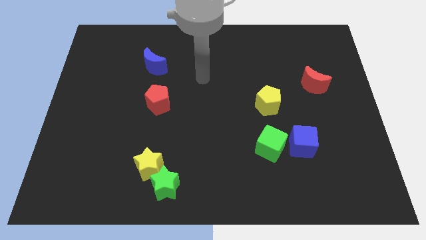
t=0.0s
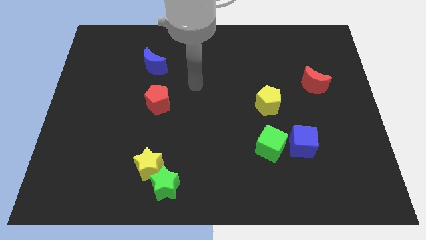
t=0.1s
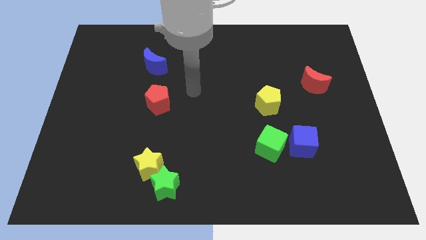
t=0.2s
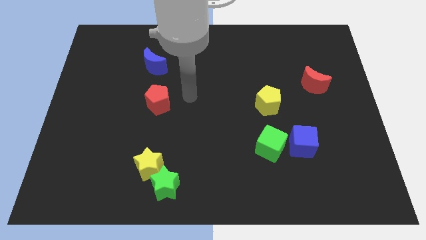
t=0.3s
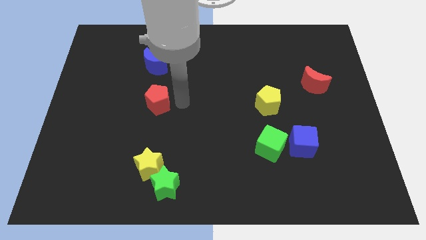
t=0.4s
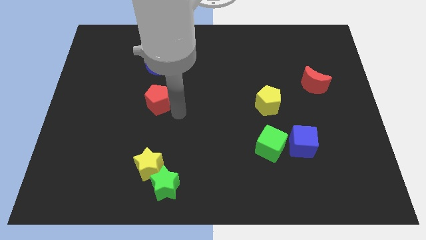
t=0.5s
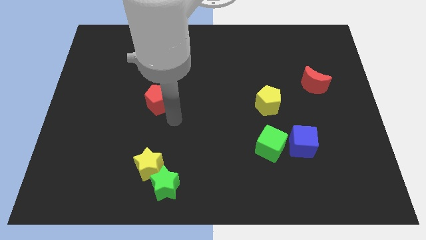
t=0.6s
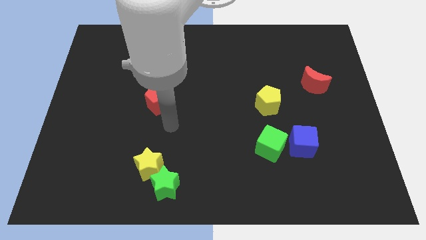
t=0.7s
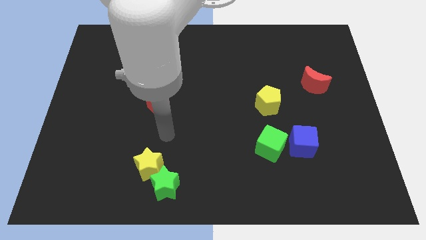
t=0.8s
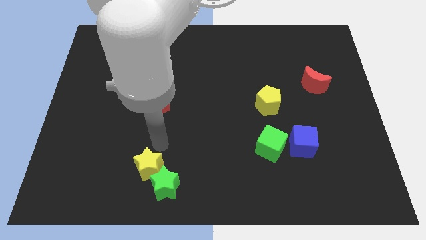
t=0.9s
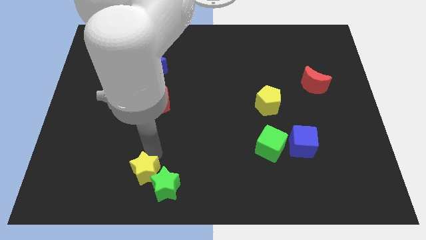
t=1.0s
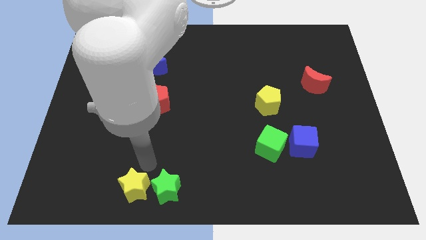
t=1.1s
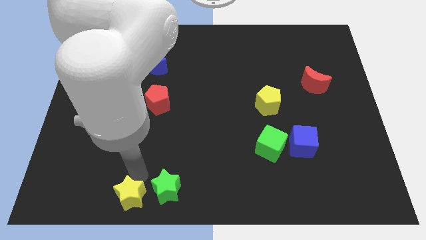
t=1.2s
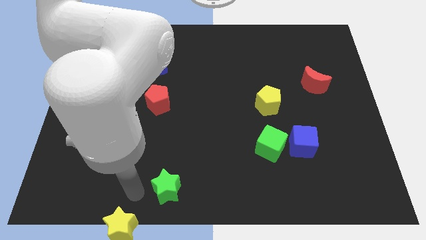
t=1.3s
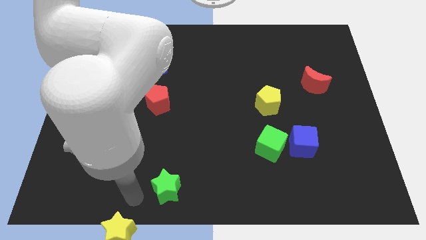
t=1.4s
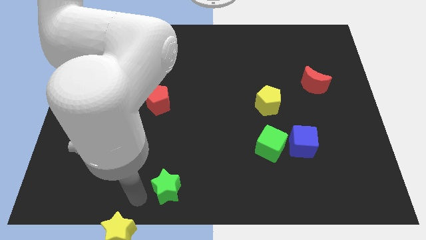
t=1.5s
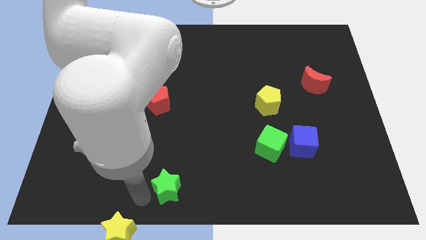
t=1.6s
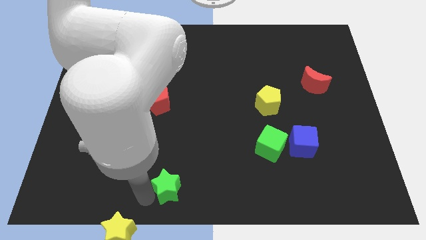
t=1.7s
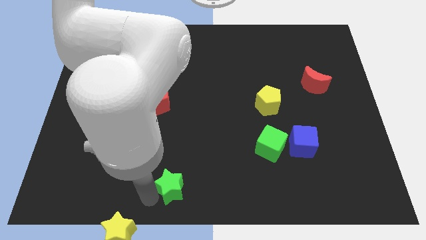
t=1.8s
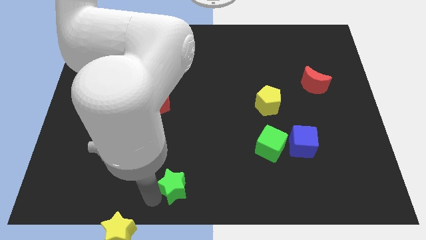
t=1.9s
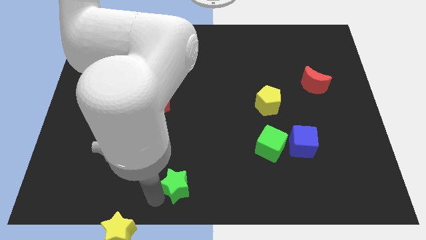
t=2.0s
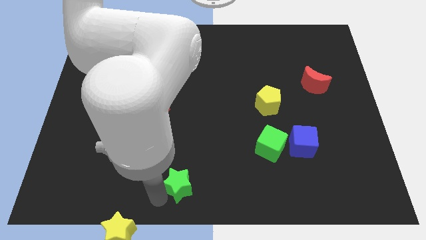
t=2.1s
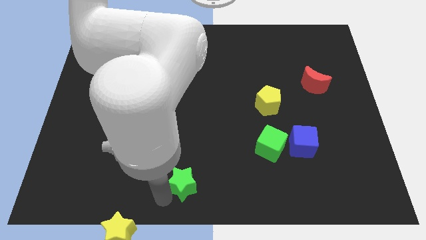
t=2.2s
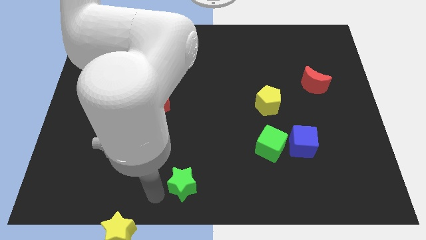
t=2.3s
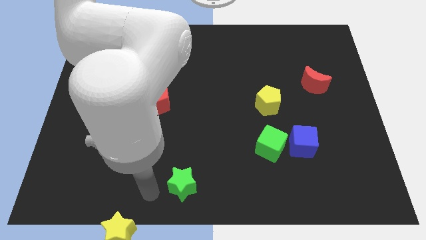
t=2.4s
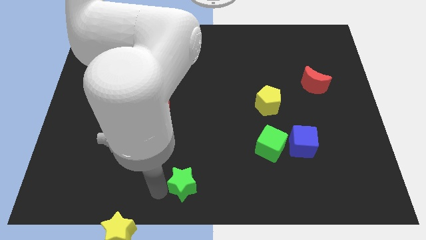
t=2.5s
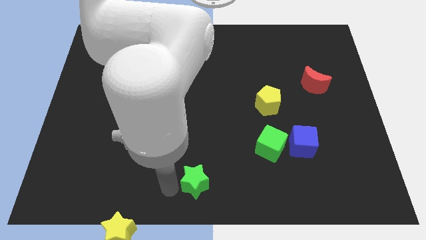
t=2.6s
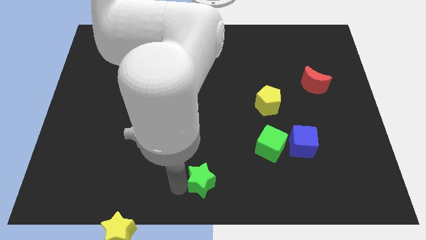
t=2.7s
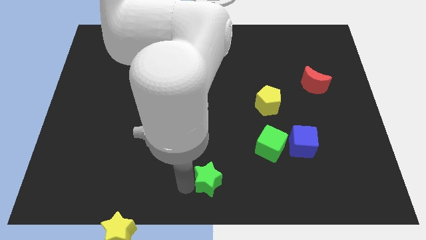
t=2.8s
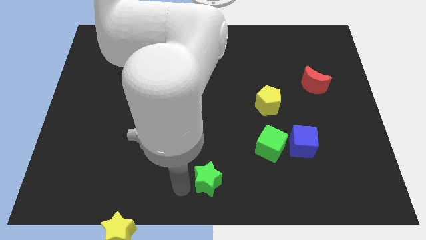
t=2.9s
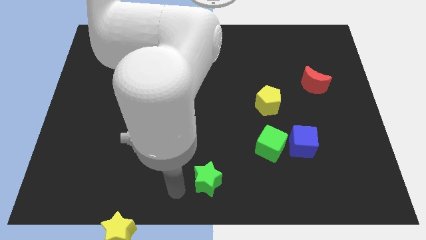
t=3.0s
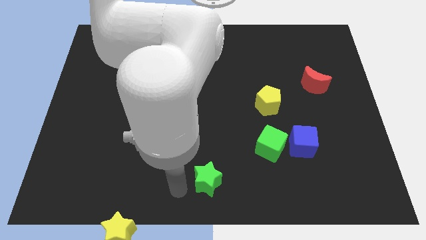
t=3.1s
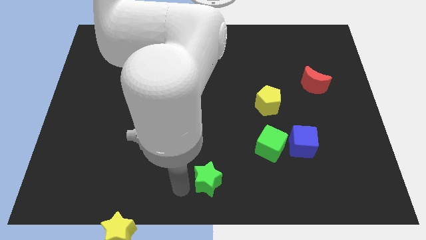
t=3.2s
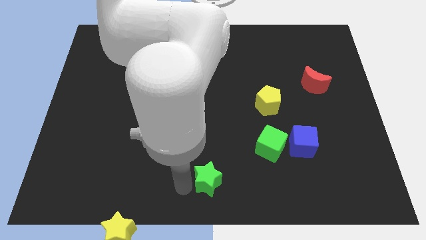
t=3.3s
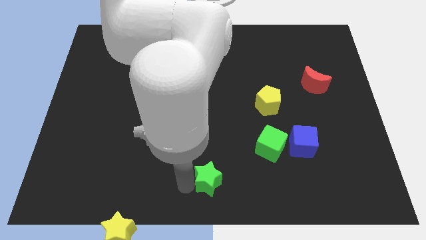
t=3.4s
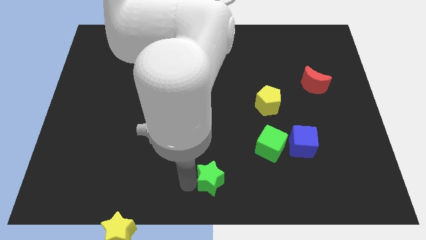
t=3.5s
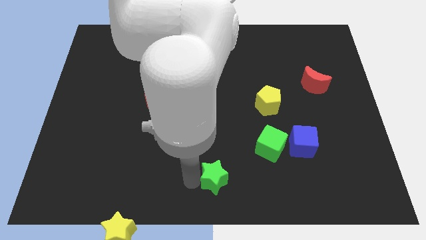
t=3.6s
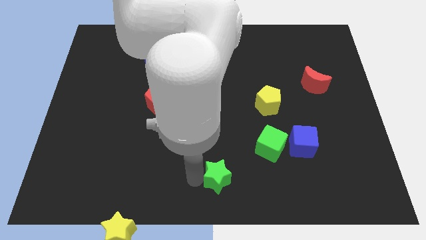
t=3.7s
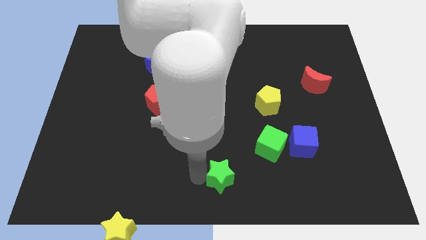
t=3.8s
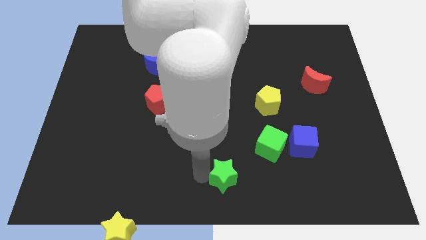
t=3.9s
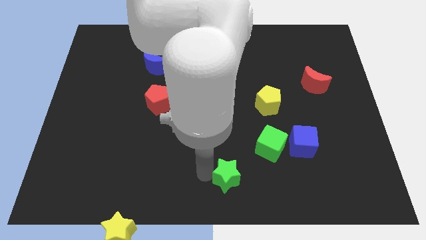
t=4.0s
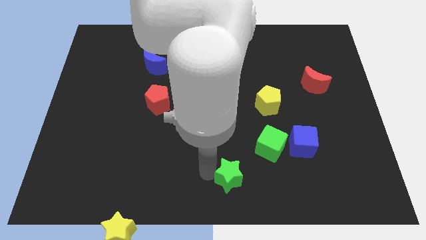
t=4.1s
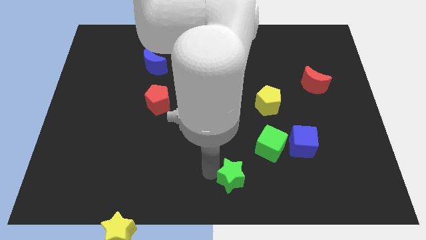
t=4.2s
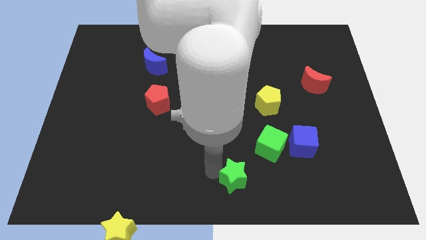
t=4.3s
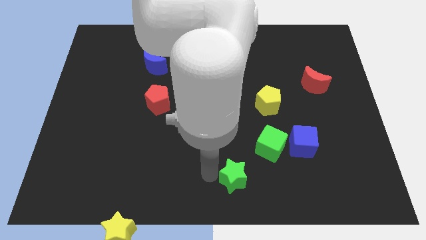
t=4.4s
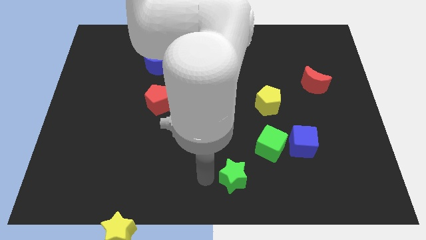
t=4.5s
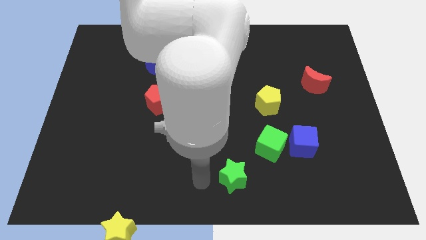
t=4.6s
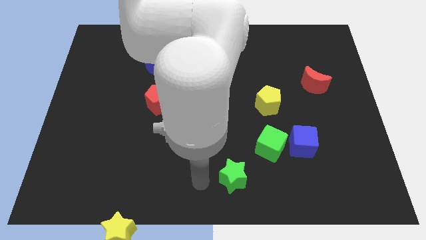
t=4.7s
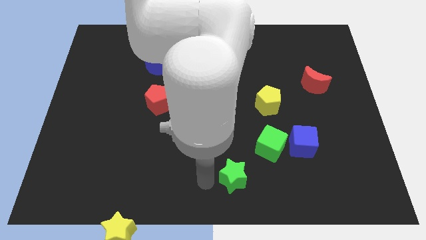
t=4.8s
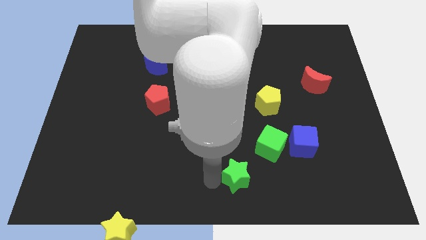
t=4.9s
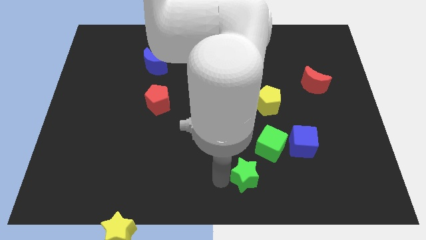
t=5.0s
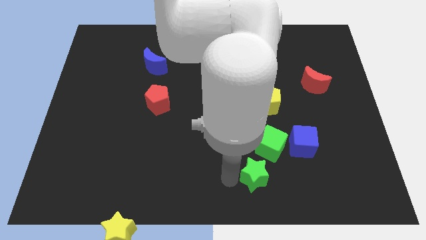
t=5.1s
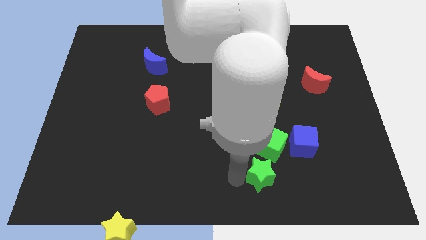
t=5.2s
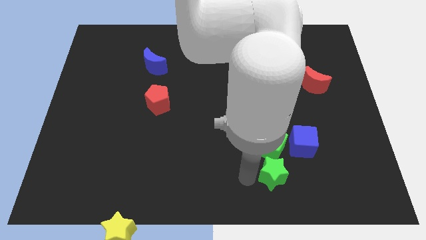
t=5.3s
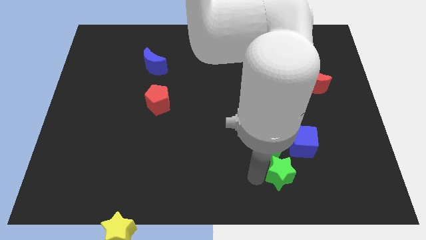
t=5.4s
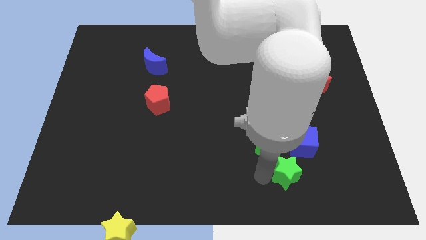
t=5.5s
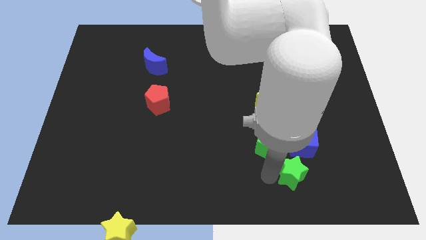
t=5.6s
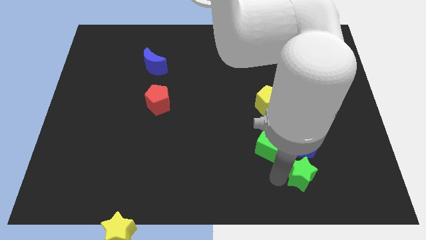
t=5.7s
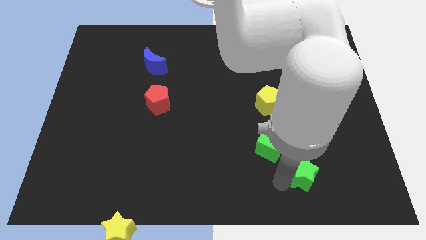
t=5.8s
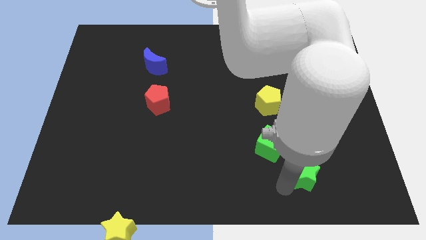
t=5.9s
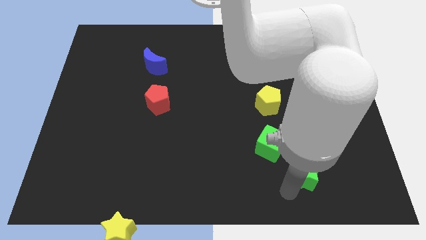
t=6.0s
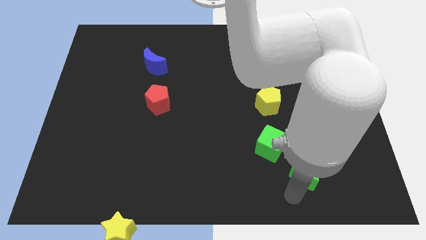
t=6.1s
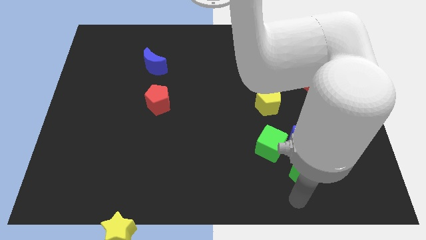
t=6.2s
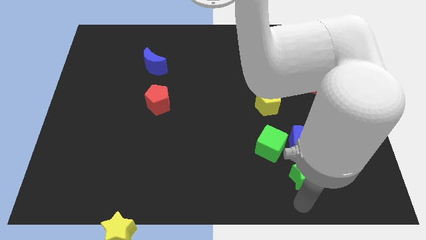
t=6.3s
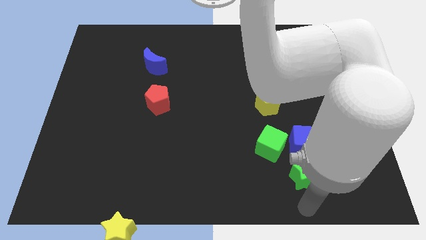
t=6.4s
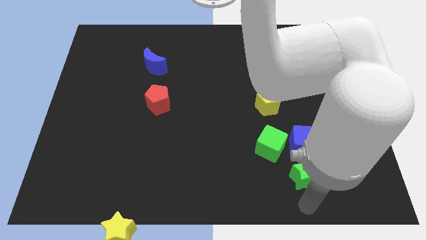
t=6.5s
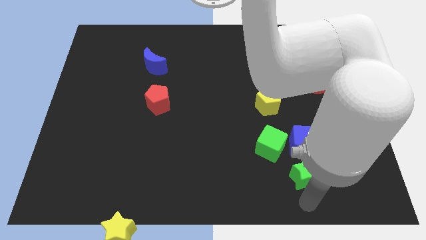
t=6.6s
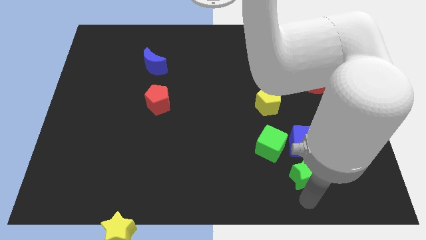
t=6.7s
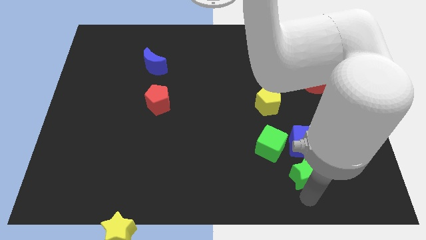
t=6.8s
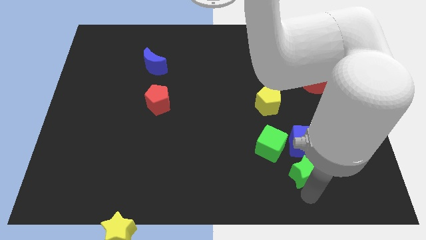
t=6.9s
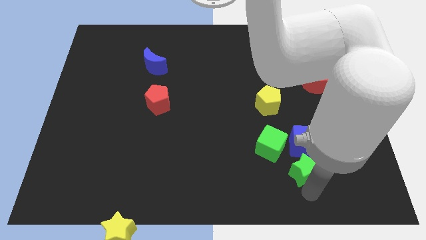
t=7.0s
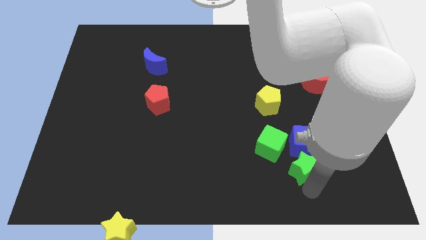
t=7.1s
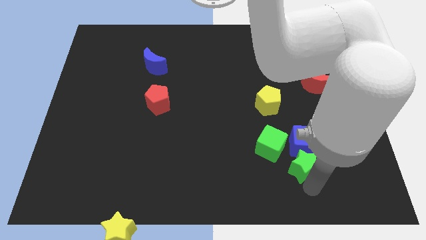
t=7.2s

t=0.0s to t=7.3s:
slide the green star to the blue cube

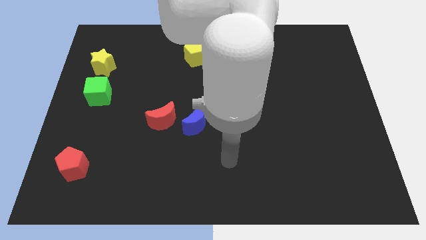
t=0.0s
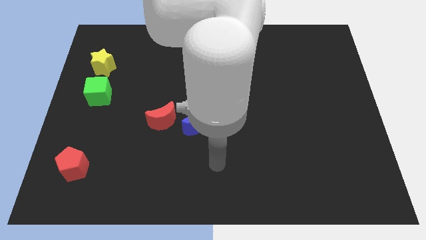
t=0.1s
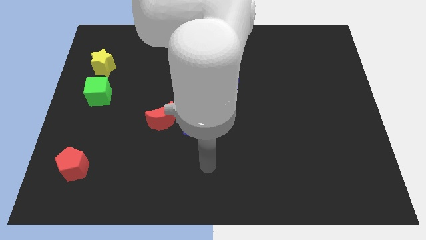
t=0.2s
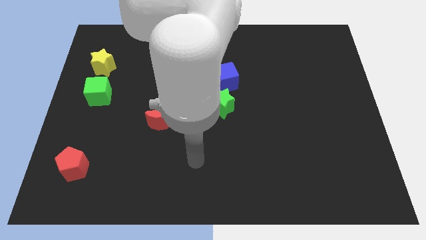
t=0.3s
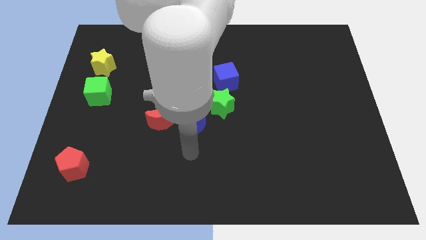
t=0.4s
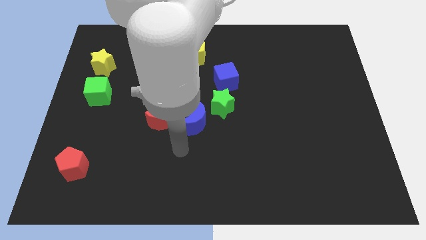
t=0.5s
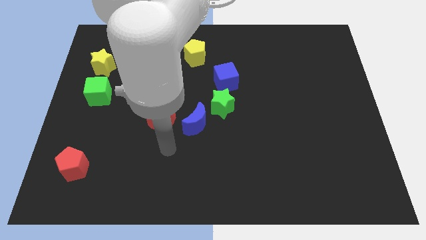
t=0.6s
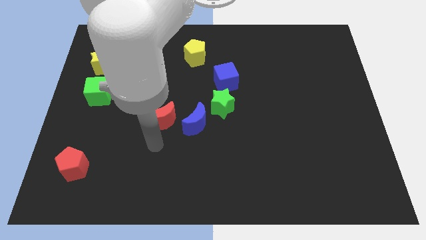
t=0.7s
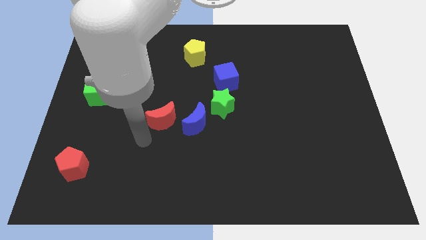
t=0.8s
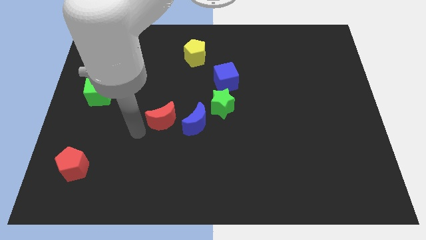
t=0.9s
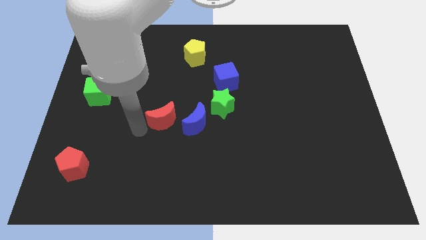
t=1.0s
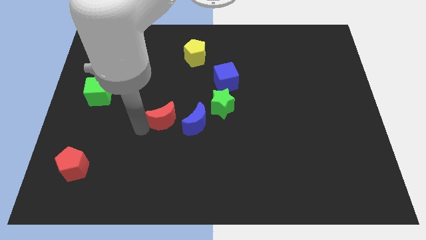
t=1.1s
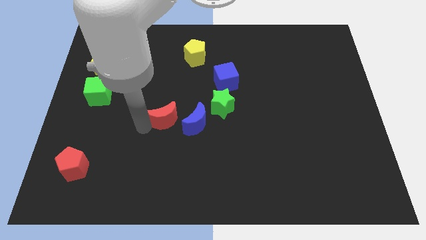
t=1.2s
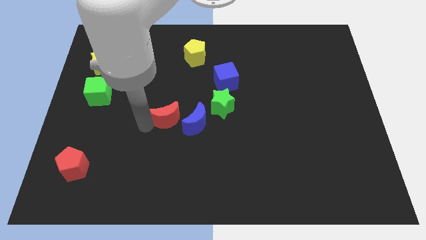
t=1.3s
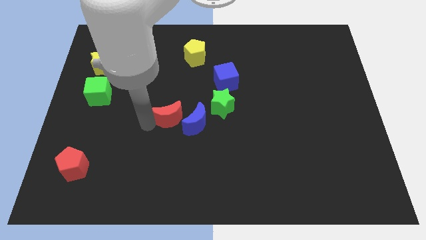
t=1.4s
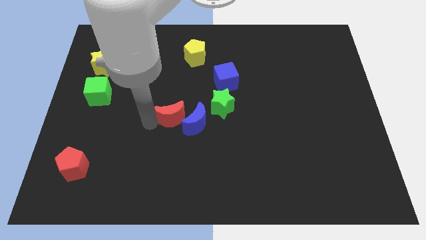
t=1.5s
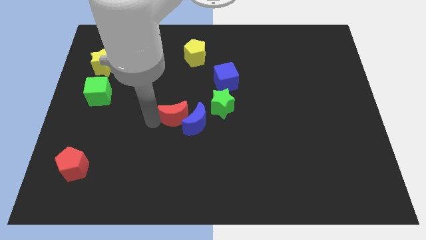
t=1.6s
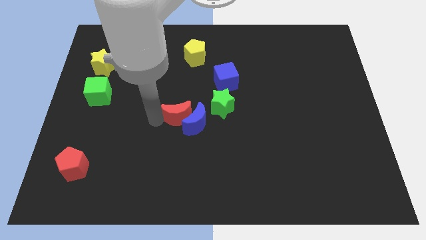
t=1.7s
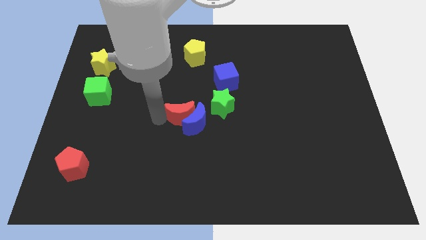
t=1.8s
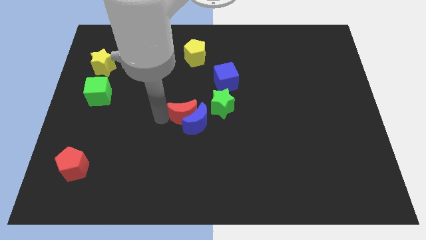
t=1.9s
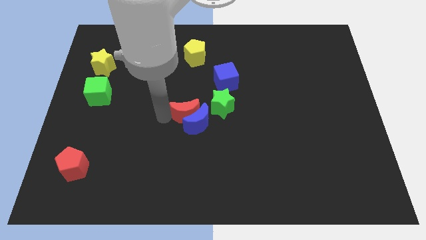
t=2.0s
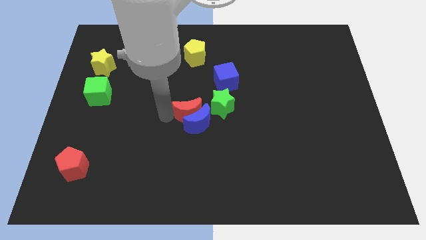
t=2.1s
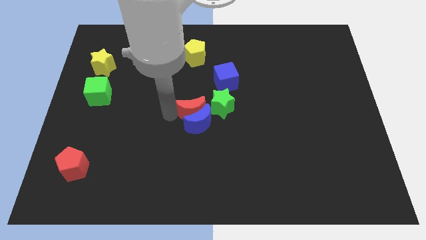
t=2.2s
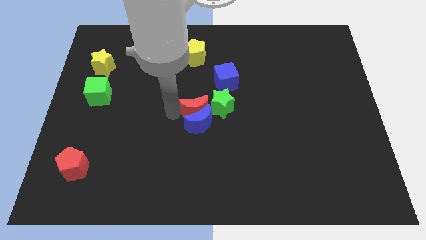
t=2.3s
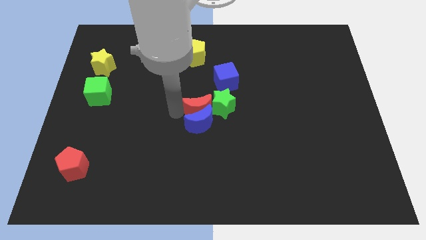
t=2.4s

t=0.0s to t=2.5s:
put the red moon towards the green star
